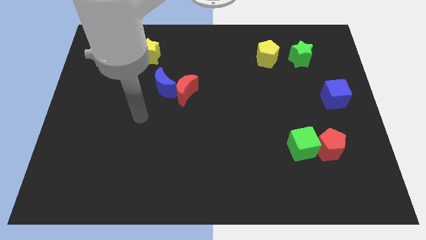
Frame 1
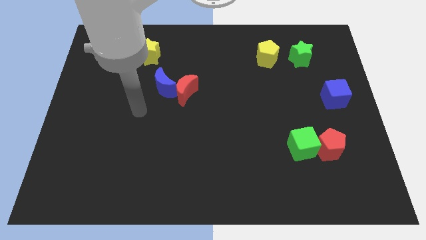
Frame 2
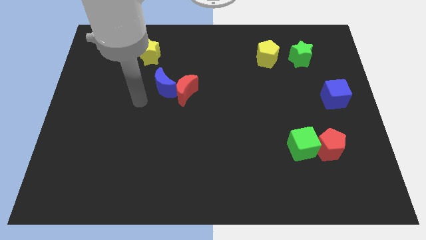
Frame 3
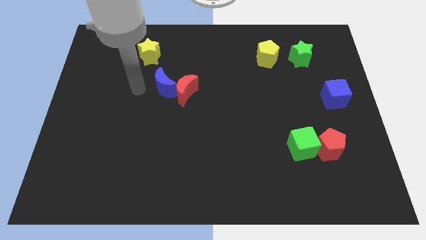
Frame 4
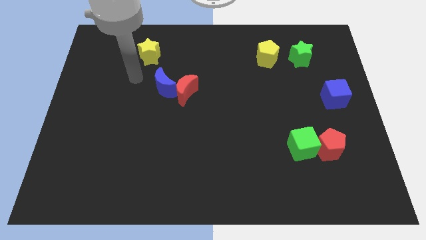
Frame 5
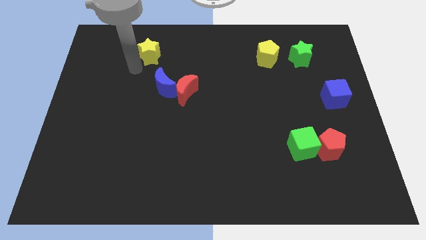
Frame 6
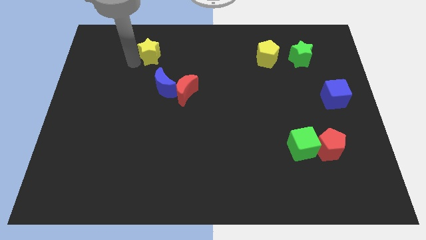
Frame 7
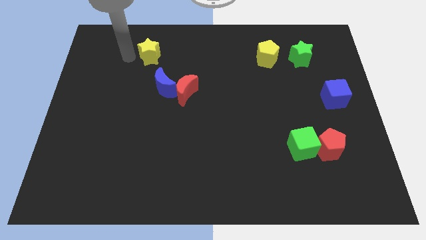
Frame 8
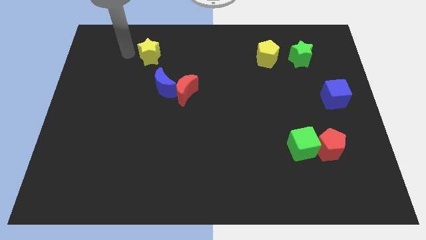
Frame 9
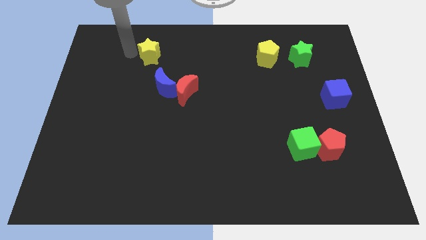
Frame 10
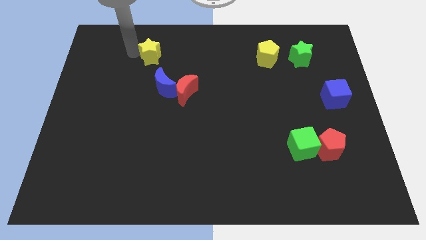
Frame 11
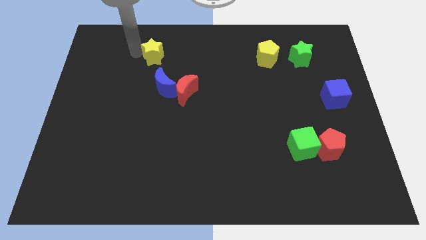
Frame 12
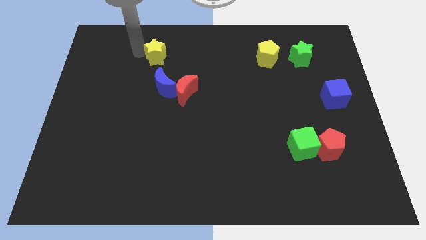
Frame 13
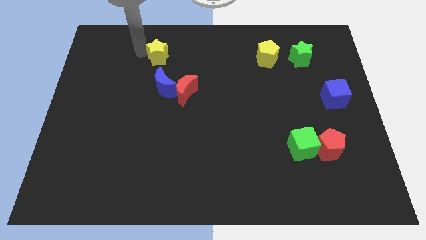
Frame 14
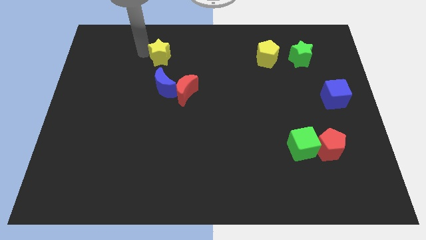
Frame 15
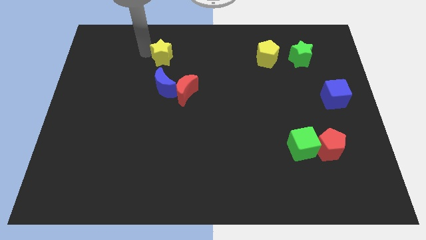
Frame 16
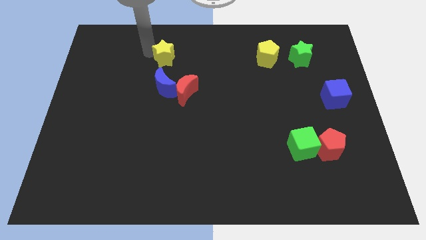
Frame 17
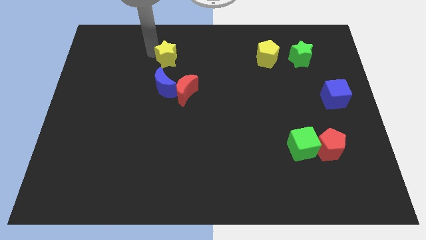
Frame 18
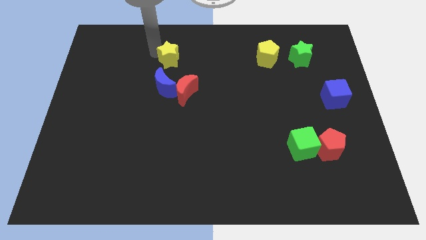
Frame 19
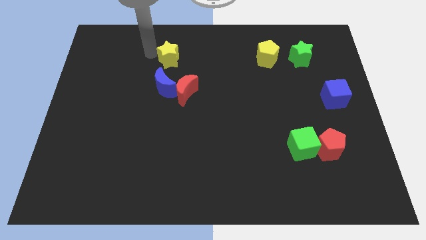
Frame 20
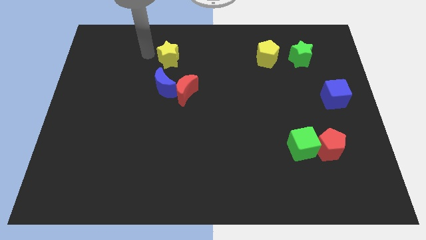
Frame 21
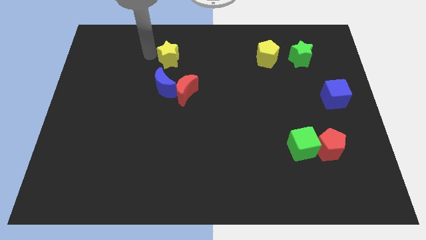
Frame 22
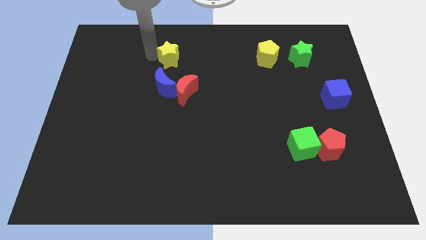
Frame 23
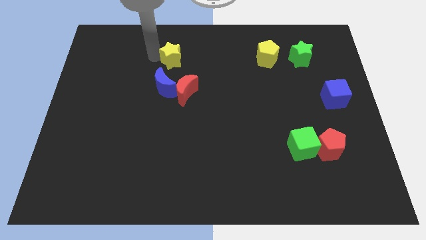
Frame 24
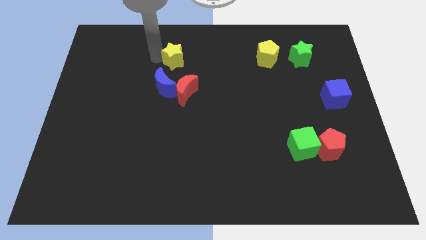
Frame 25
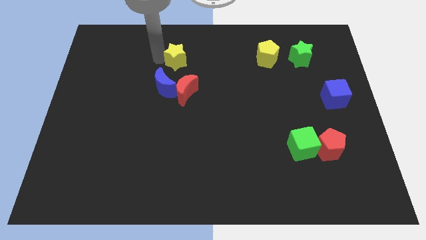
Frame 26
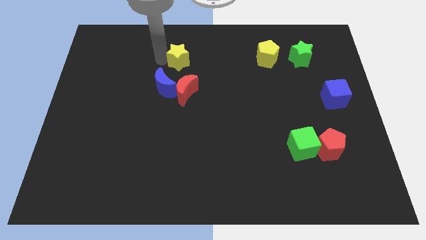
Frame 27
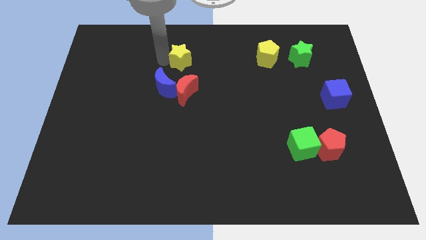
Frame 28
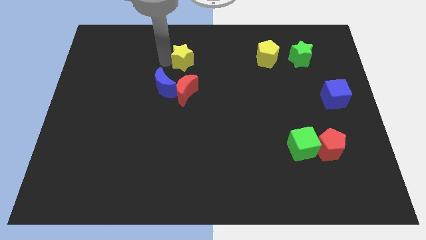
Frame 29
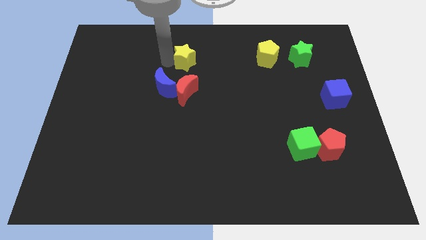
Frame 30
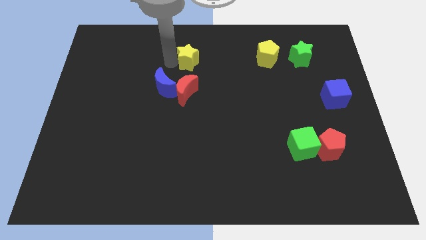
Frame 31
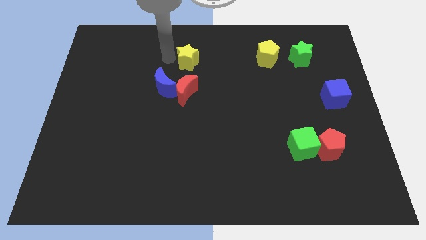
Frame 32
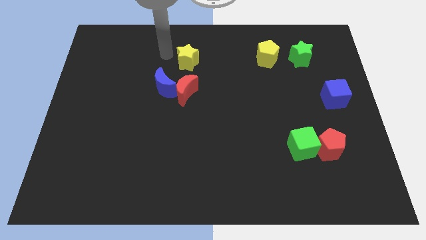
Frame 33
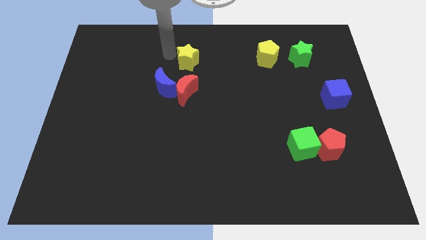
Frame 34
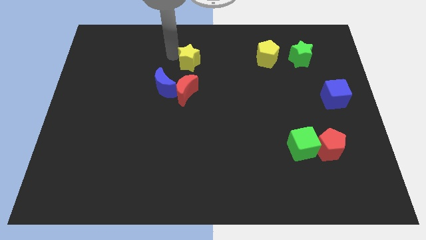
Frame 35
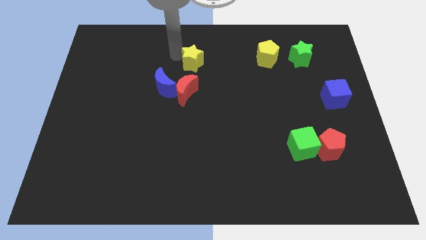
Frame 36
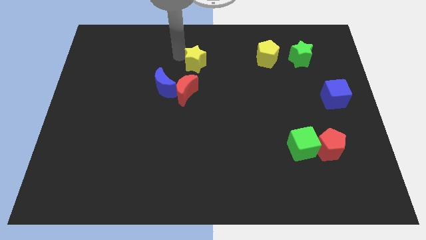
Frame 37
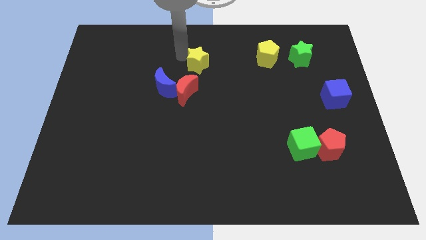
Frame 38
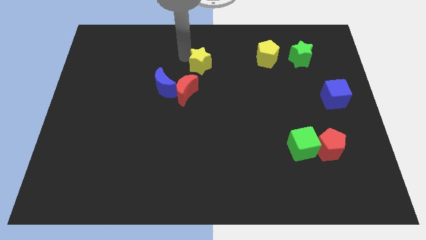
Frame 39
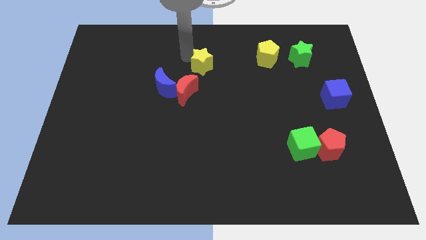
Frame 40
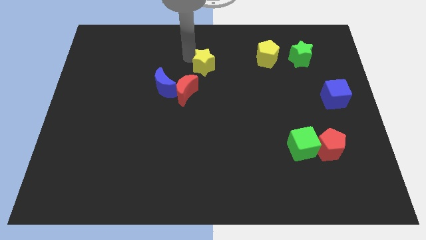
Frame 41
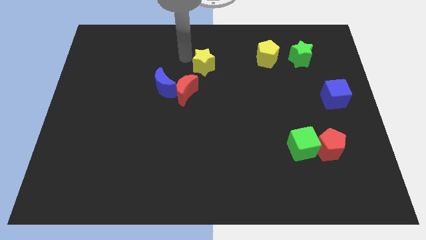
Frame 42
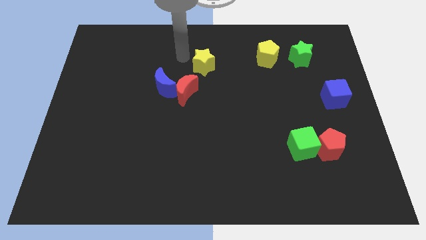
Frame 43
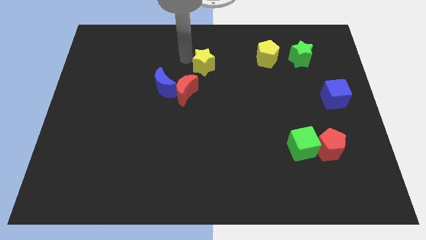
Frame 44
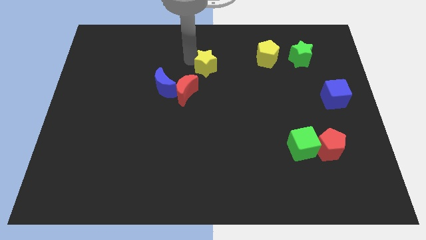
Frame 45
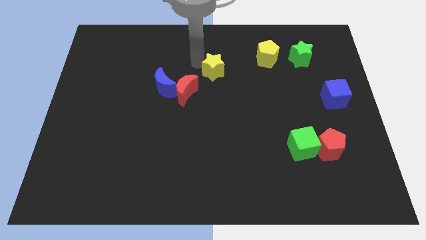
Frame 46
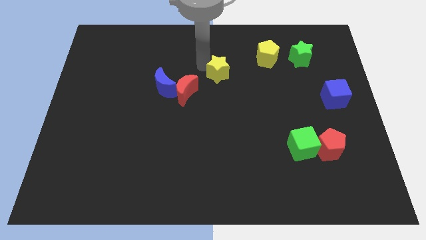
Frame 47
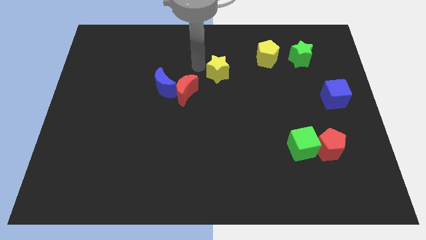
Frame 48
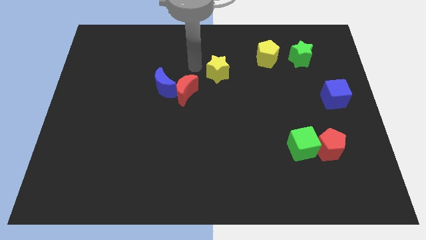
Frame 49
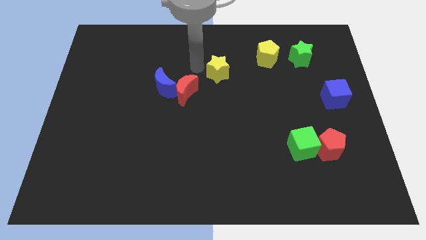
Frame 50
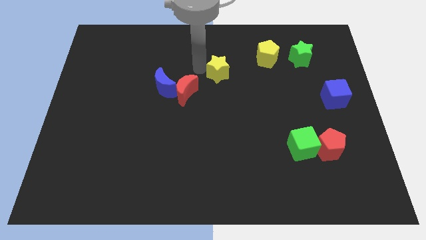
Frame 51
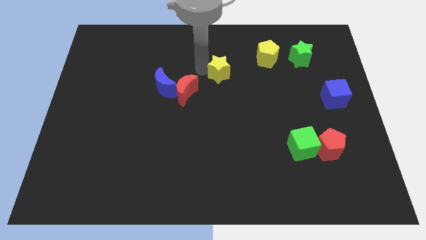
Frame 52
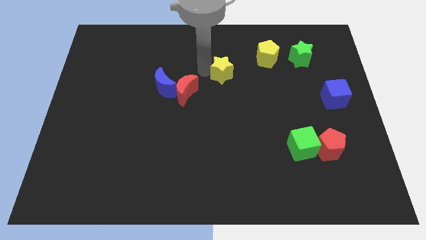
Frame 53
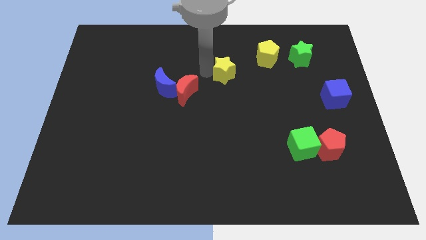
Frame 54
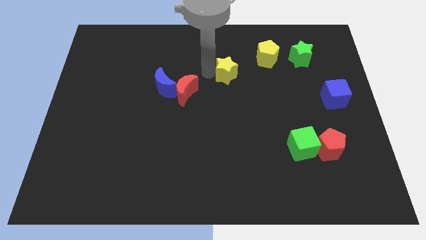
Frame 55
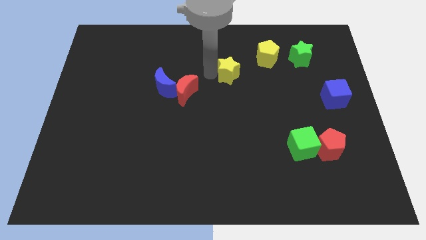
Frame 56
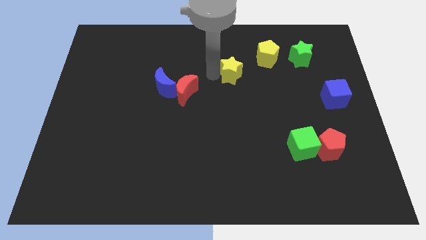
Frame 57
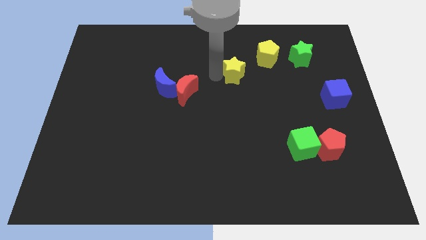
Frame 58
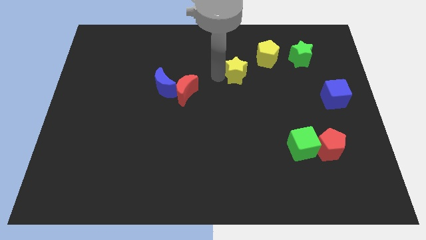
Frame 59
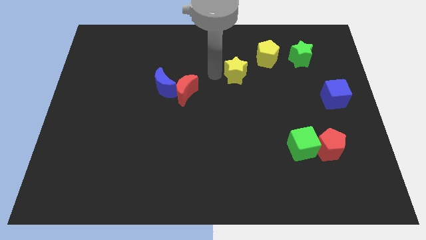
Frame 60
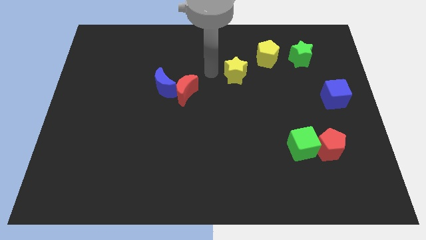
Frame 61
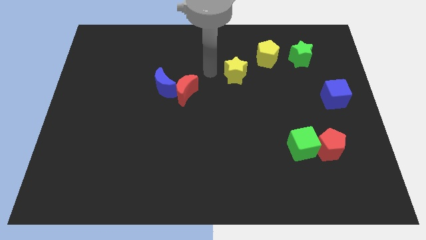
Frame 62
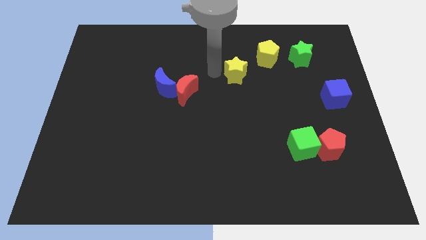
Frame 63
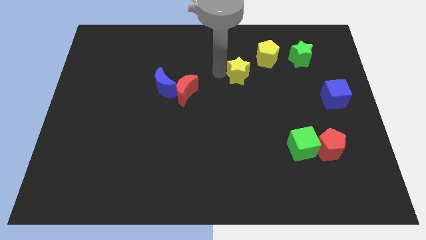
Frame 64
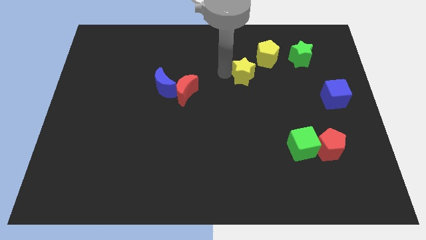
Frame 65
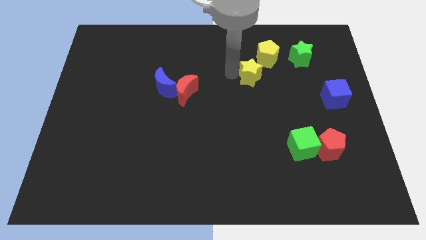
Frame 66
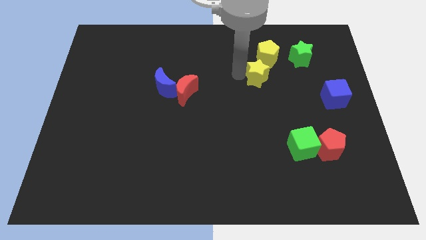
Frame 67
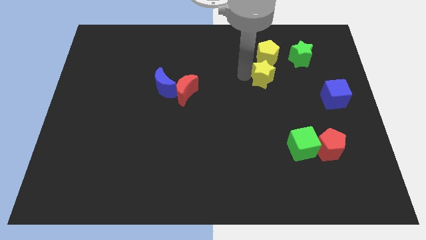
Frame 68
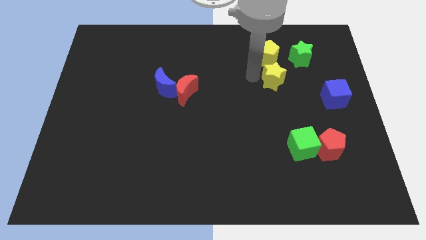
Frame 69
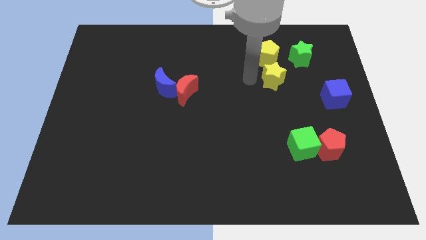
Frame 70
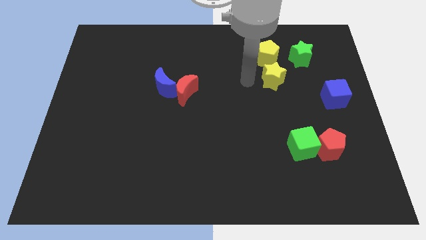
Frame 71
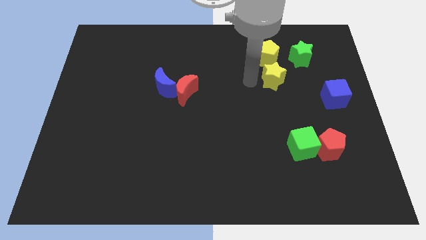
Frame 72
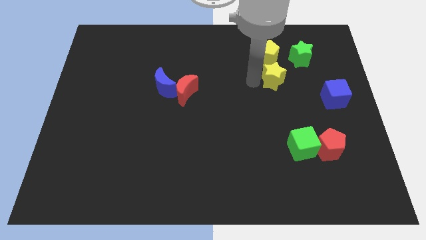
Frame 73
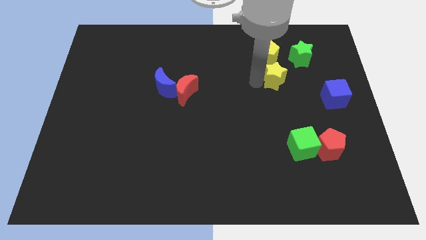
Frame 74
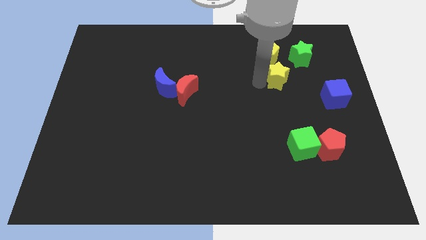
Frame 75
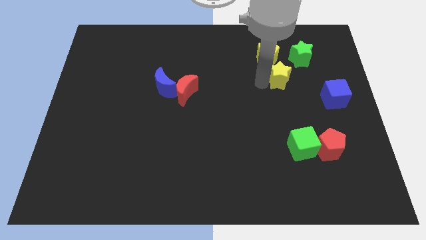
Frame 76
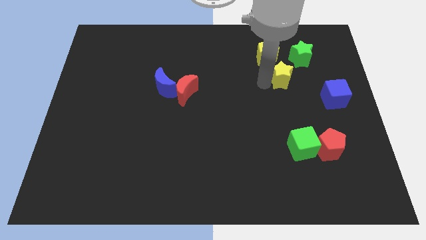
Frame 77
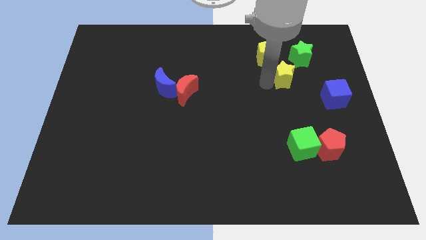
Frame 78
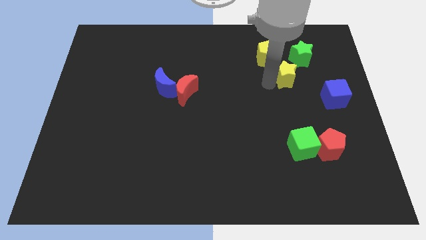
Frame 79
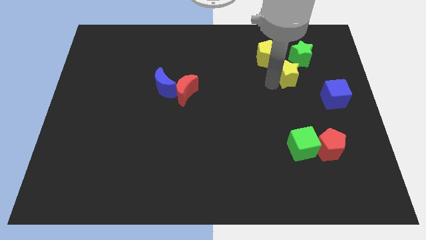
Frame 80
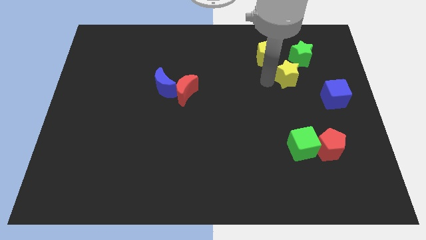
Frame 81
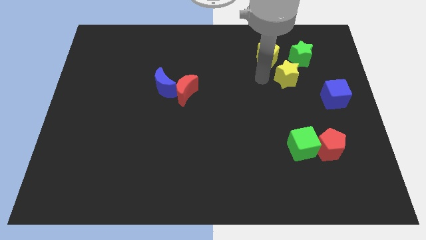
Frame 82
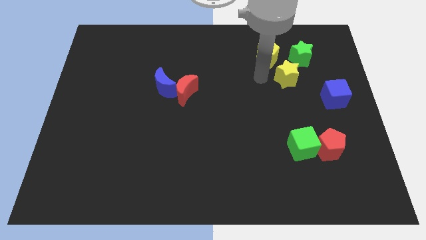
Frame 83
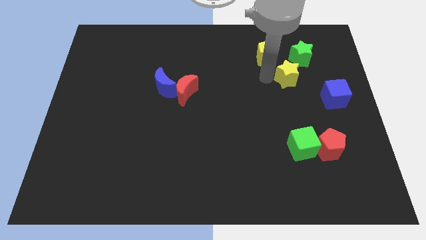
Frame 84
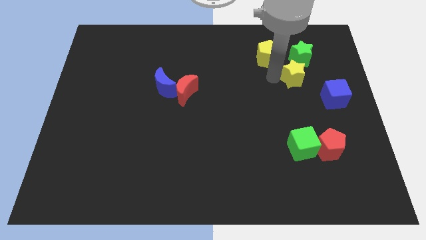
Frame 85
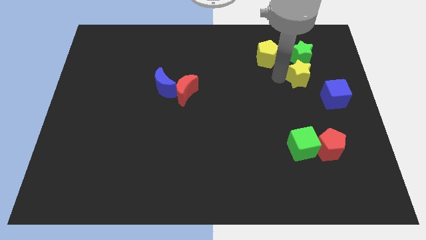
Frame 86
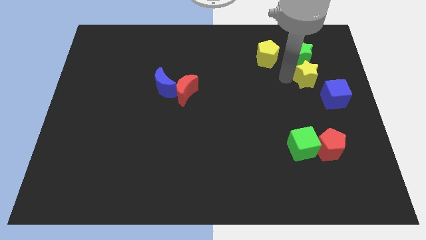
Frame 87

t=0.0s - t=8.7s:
move the yellow star diagonally down and to the right of the green star
